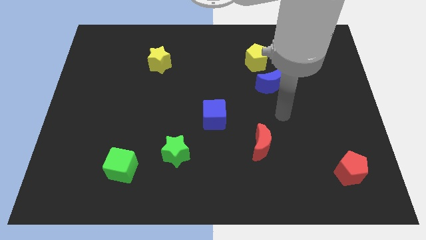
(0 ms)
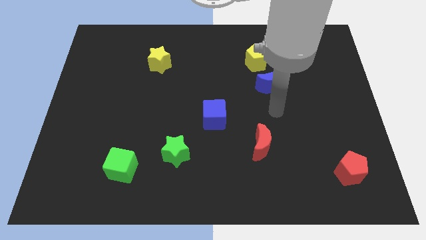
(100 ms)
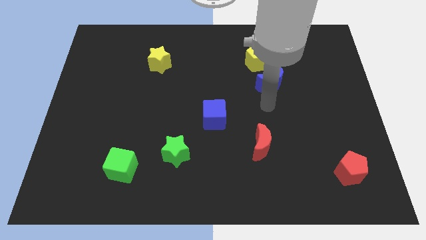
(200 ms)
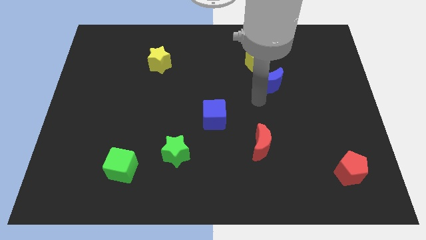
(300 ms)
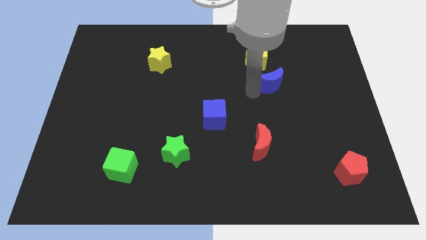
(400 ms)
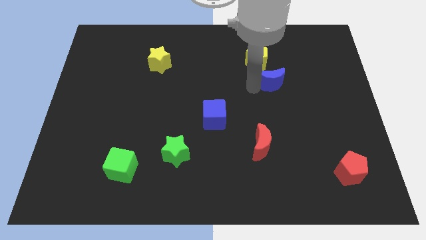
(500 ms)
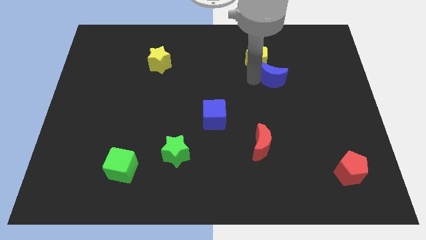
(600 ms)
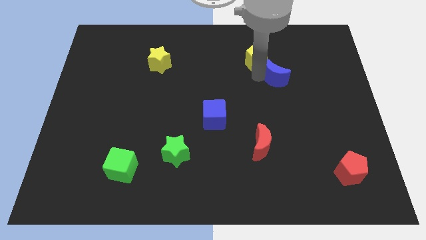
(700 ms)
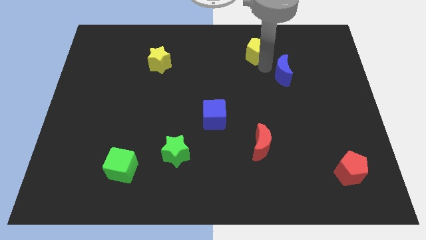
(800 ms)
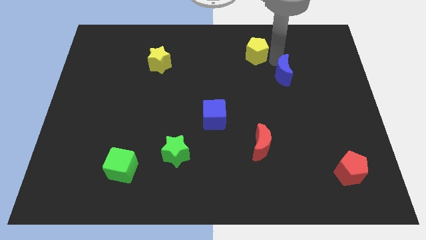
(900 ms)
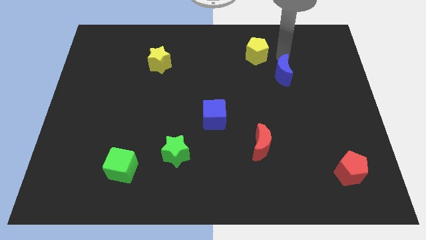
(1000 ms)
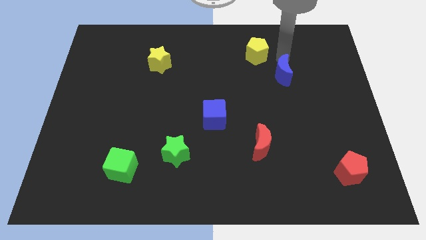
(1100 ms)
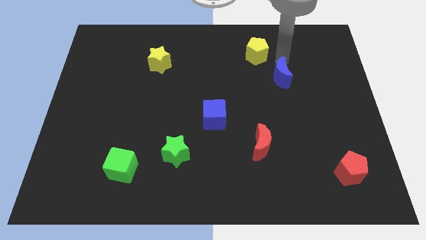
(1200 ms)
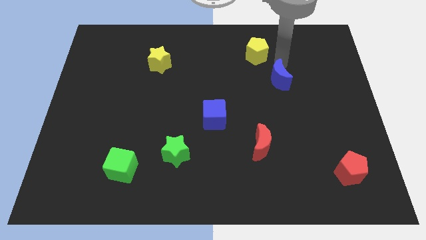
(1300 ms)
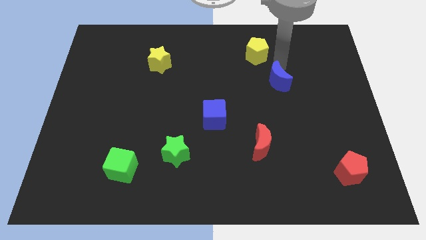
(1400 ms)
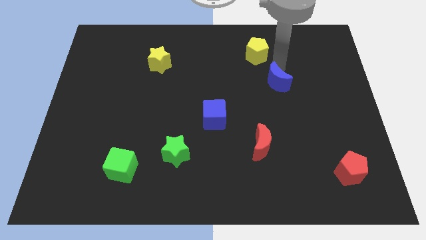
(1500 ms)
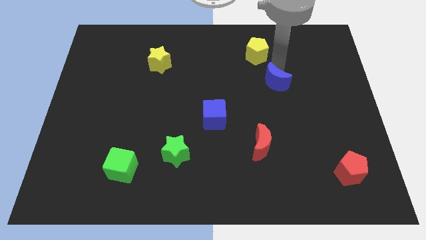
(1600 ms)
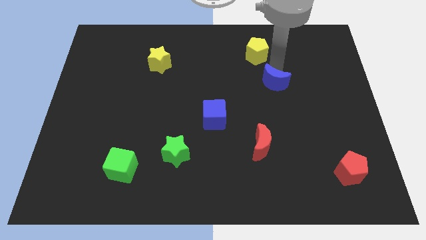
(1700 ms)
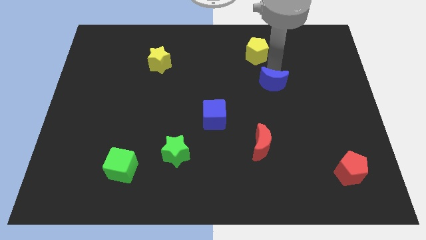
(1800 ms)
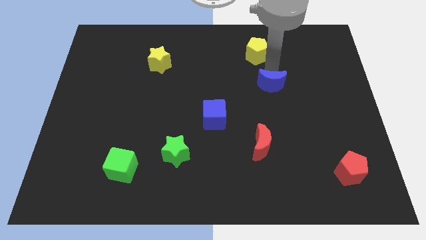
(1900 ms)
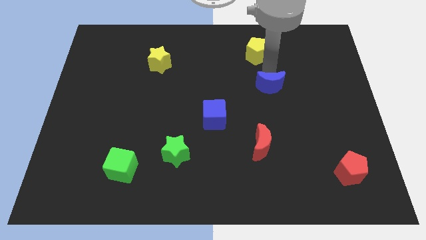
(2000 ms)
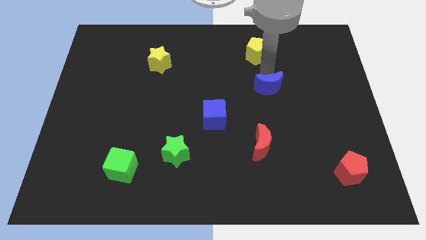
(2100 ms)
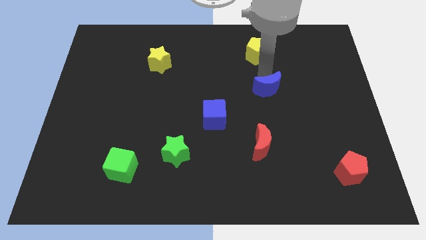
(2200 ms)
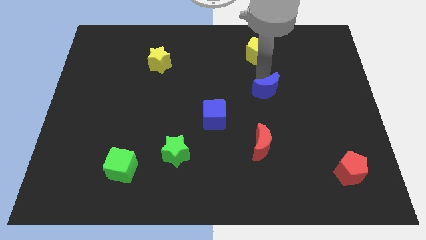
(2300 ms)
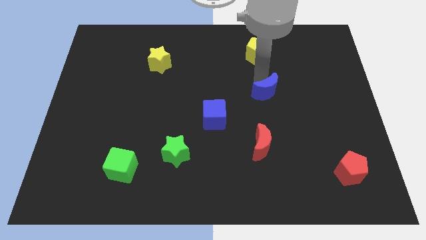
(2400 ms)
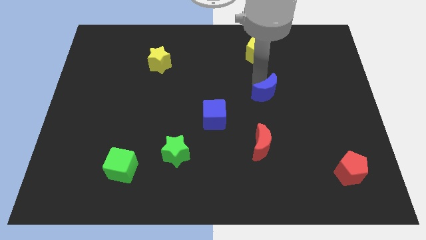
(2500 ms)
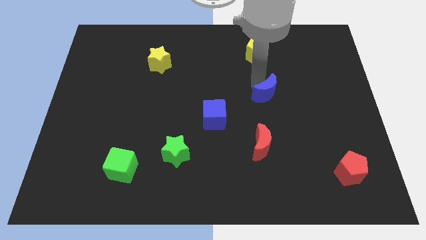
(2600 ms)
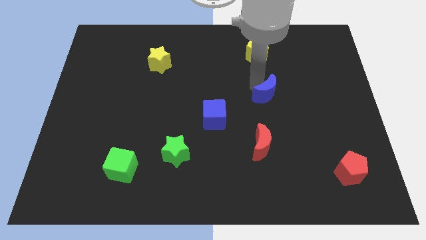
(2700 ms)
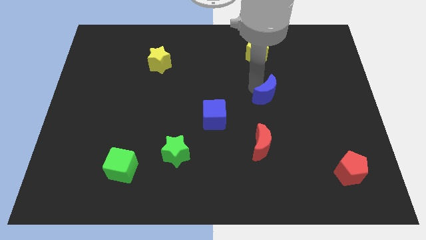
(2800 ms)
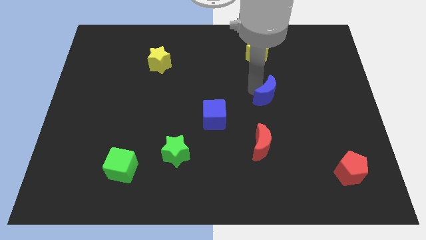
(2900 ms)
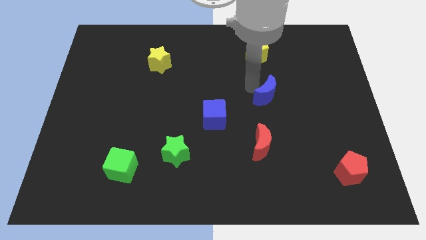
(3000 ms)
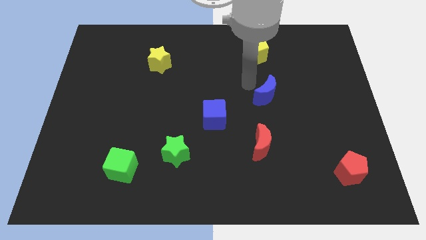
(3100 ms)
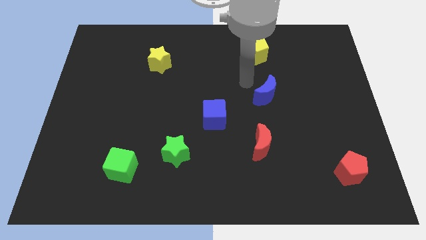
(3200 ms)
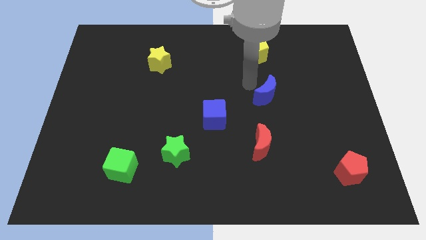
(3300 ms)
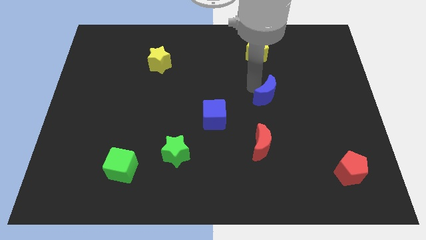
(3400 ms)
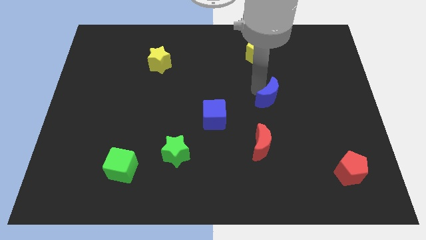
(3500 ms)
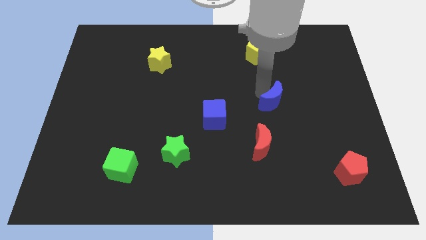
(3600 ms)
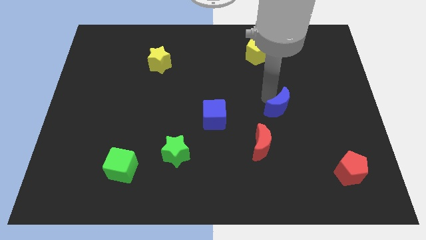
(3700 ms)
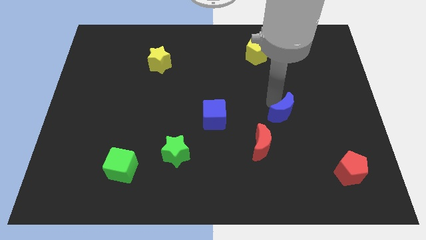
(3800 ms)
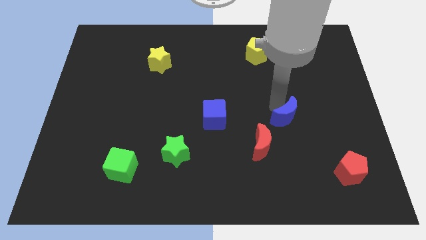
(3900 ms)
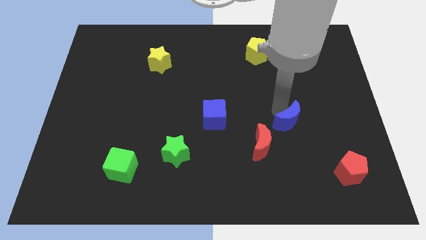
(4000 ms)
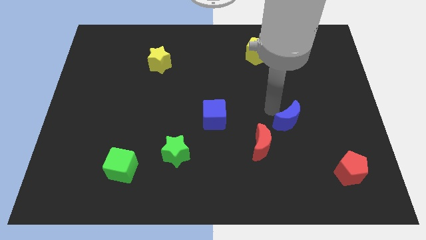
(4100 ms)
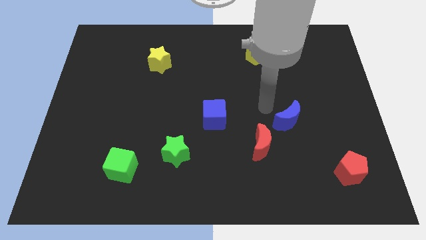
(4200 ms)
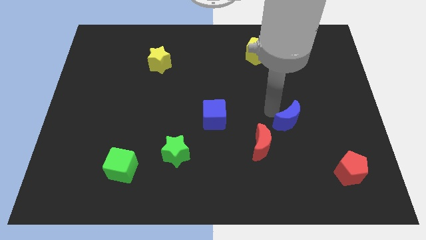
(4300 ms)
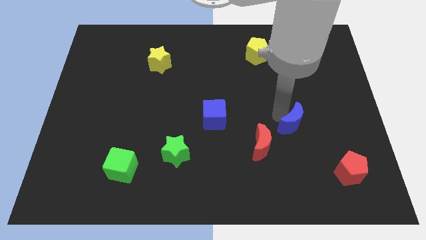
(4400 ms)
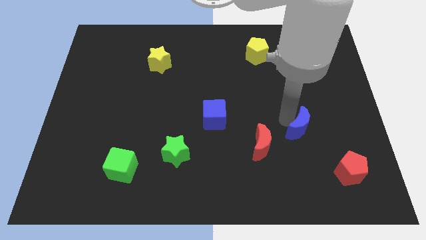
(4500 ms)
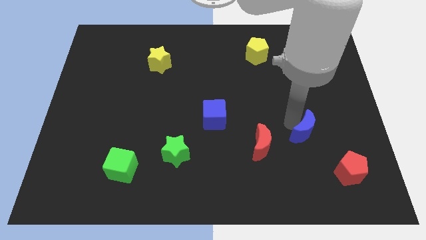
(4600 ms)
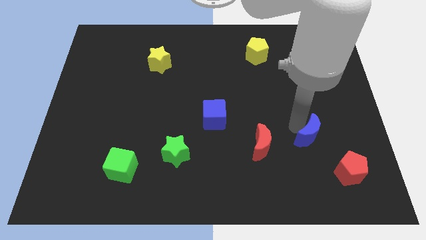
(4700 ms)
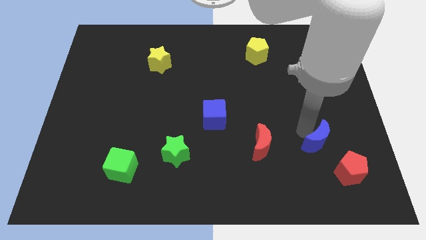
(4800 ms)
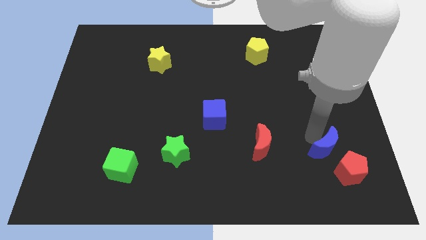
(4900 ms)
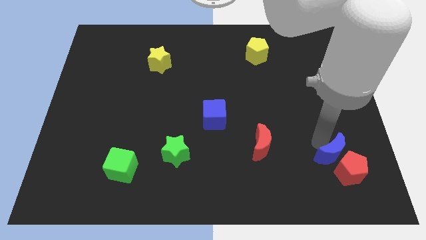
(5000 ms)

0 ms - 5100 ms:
put the blue moon towards the red pentagon

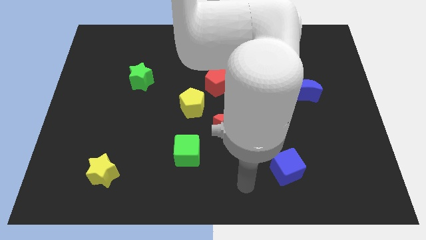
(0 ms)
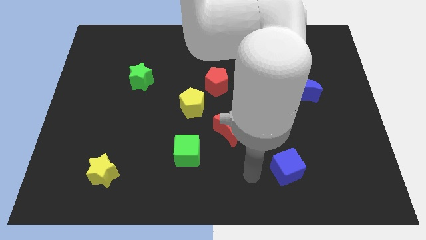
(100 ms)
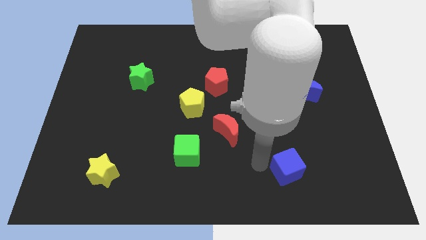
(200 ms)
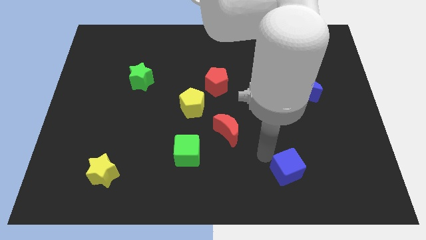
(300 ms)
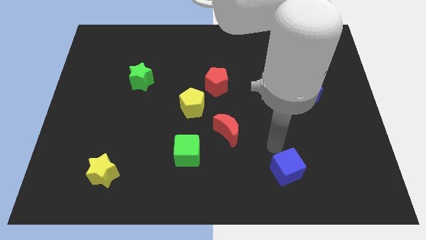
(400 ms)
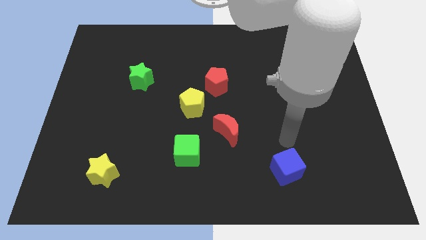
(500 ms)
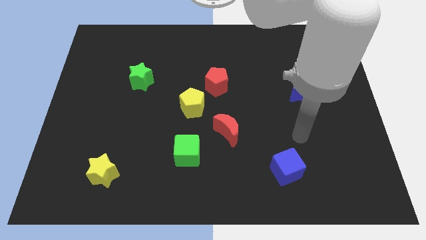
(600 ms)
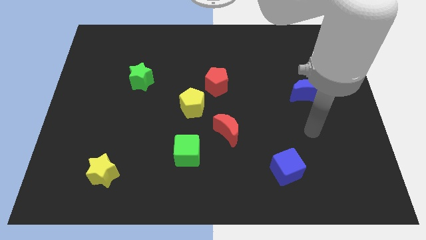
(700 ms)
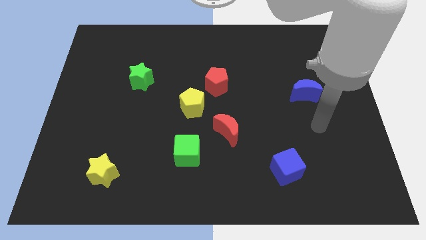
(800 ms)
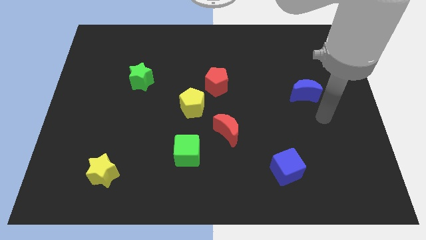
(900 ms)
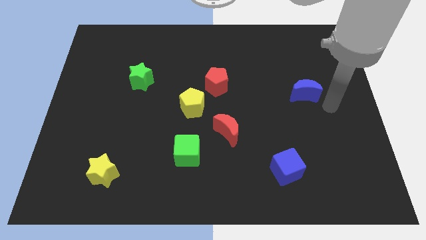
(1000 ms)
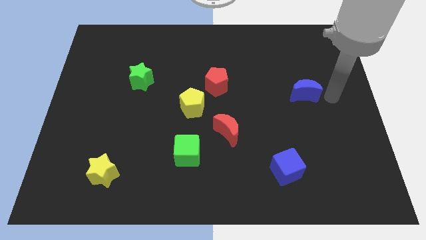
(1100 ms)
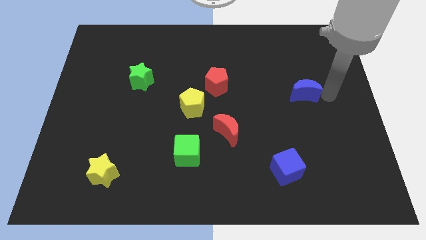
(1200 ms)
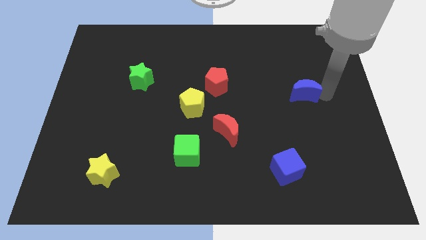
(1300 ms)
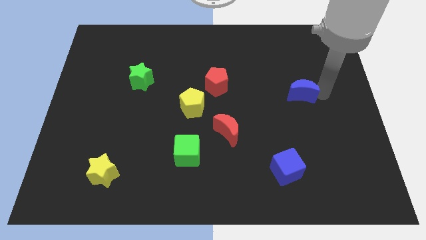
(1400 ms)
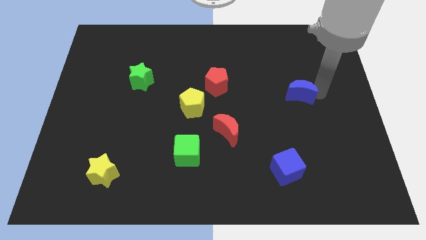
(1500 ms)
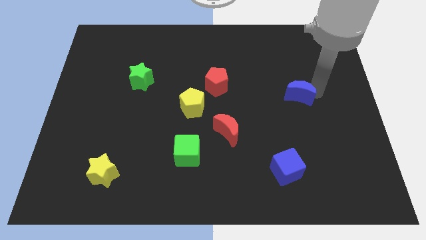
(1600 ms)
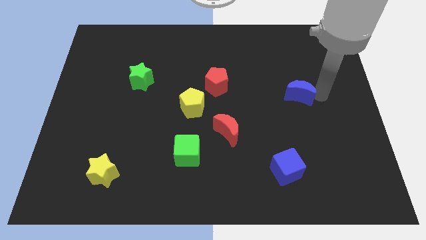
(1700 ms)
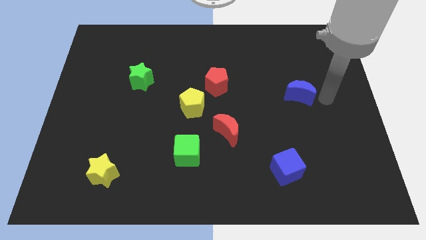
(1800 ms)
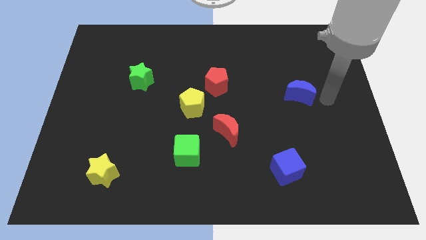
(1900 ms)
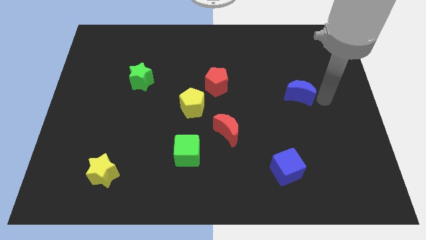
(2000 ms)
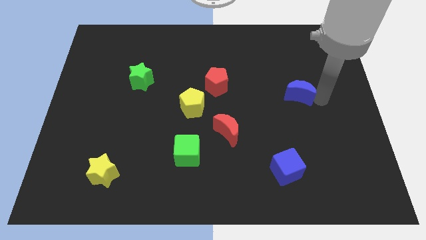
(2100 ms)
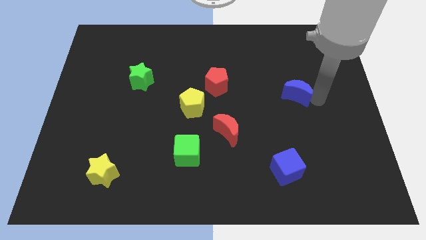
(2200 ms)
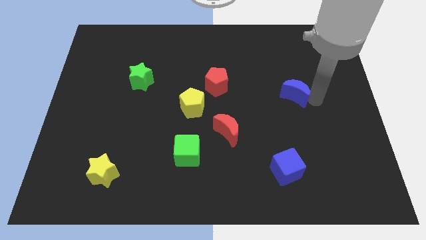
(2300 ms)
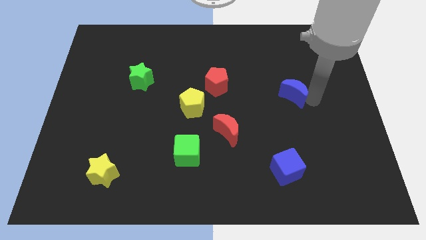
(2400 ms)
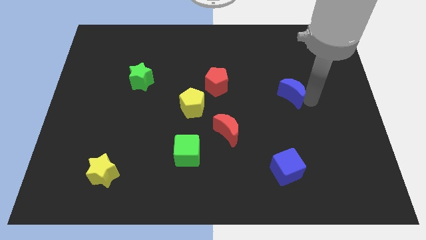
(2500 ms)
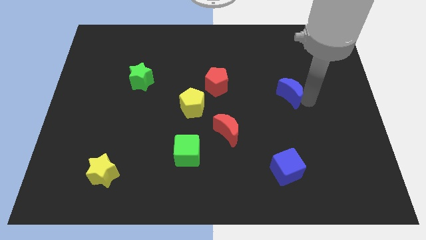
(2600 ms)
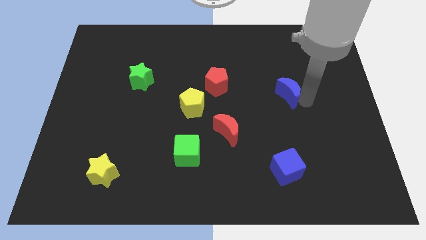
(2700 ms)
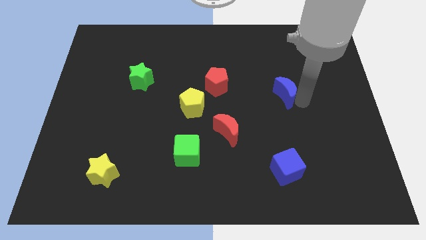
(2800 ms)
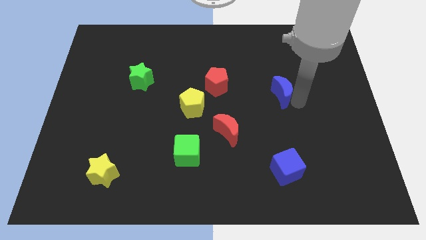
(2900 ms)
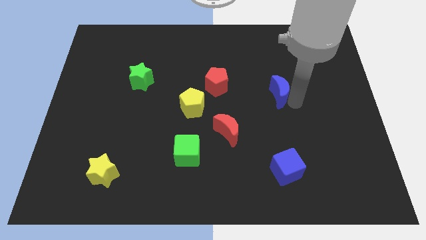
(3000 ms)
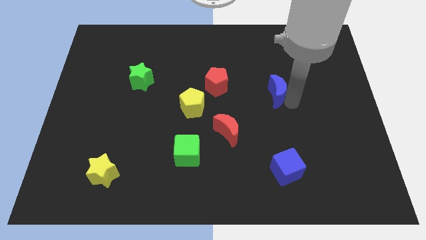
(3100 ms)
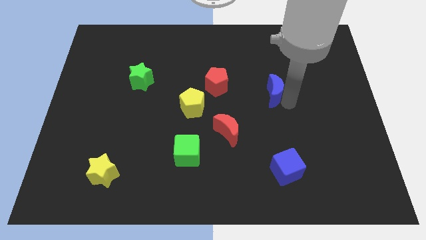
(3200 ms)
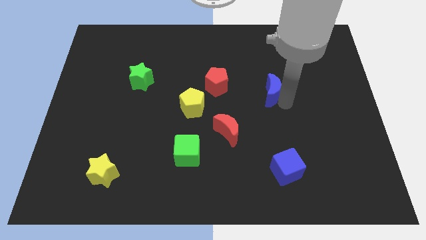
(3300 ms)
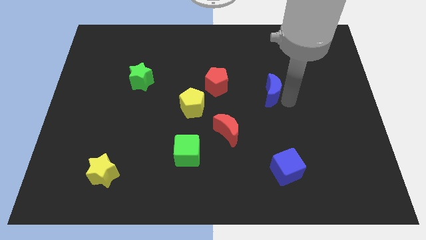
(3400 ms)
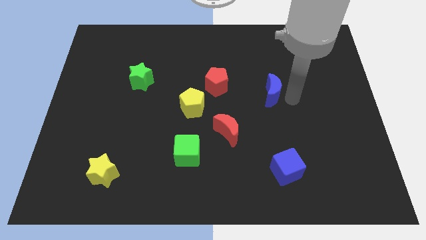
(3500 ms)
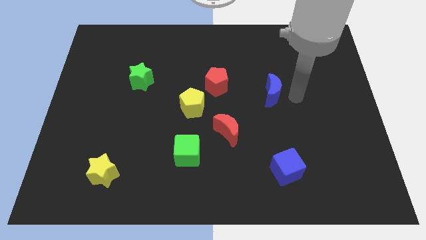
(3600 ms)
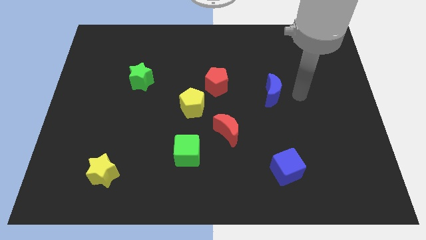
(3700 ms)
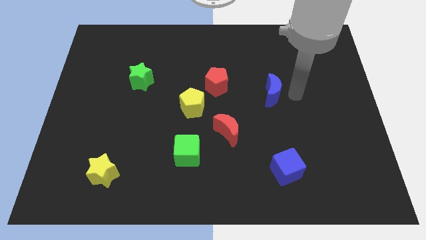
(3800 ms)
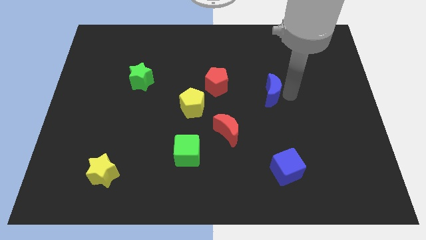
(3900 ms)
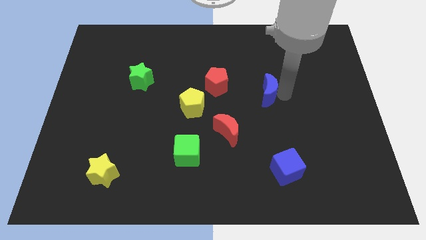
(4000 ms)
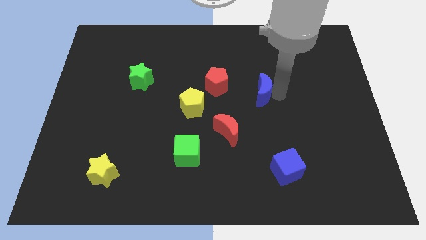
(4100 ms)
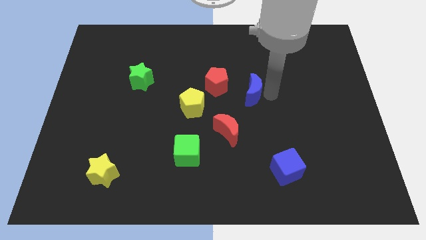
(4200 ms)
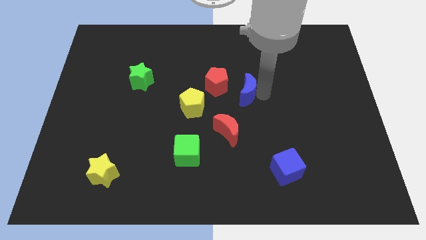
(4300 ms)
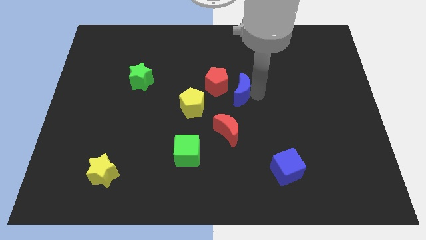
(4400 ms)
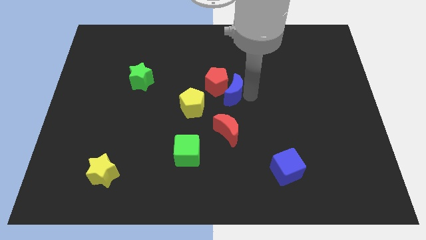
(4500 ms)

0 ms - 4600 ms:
move the blue moon to the red pentagon
